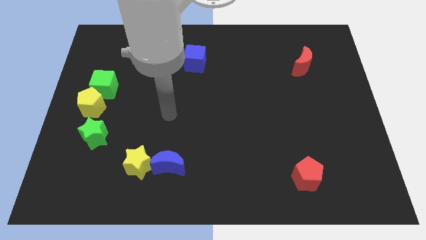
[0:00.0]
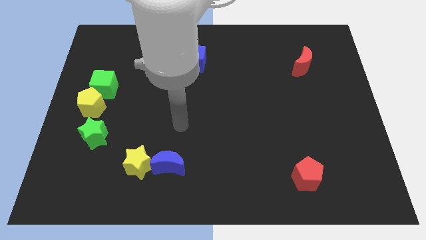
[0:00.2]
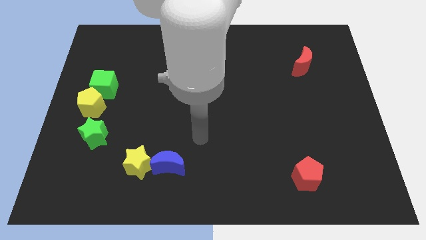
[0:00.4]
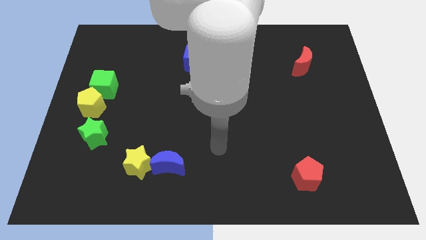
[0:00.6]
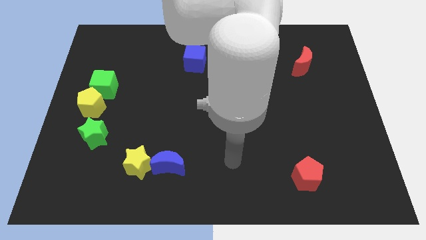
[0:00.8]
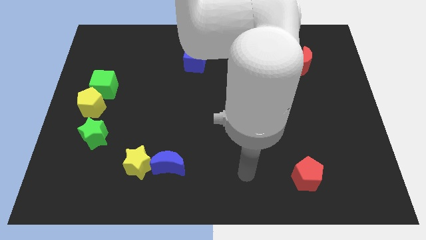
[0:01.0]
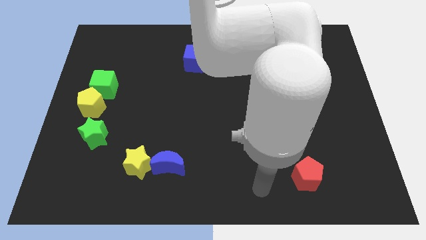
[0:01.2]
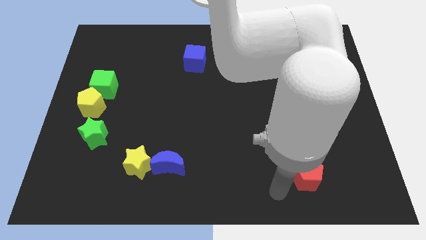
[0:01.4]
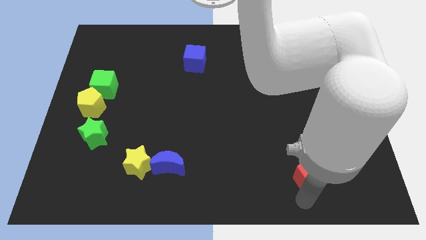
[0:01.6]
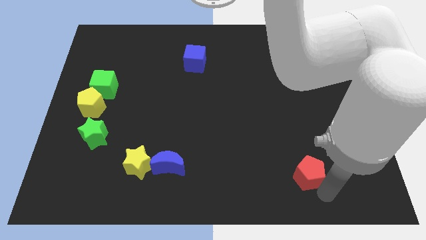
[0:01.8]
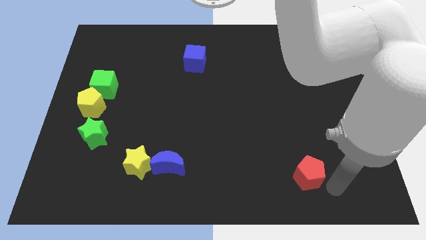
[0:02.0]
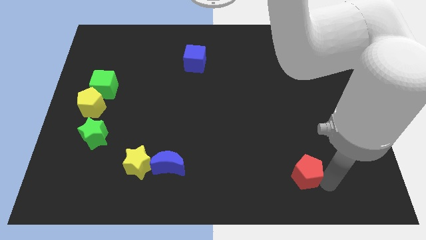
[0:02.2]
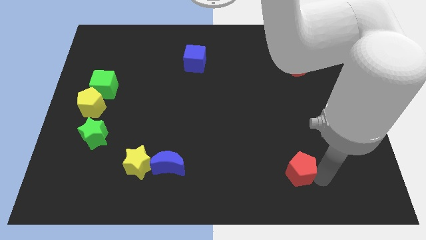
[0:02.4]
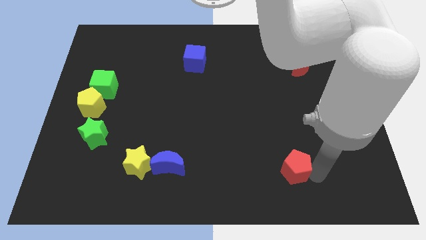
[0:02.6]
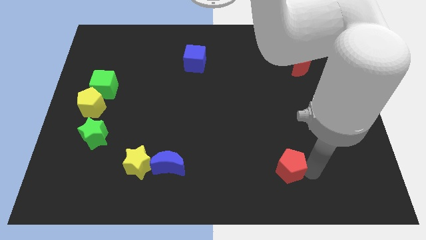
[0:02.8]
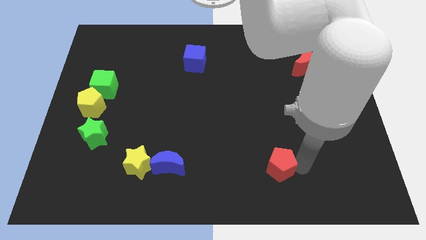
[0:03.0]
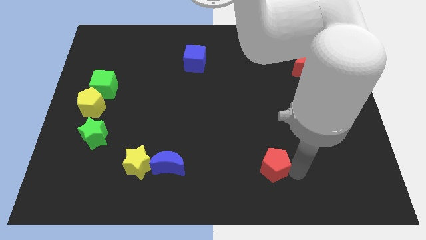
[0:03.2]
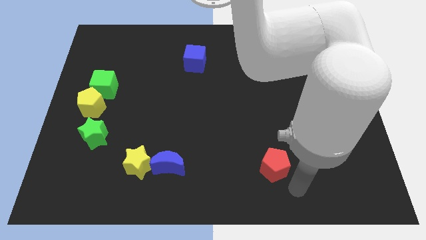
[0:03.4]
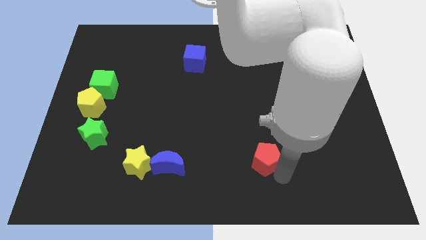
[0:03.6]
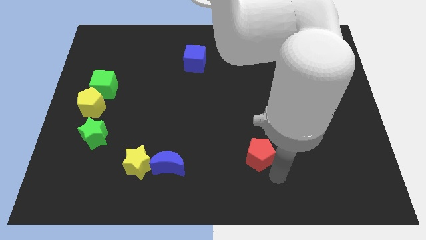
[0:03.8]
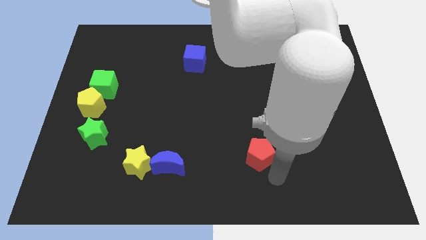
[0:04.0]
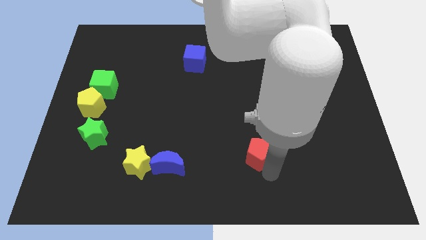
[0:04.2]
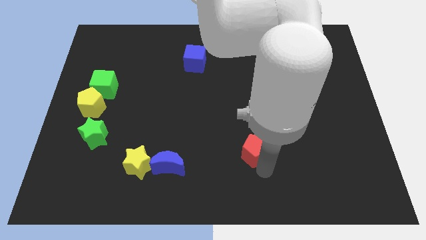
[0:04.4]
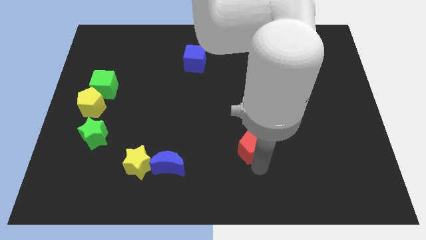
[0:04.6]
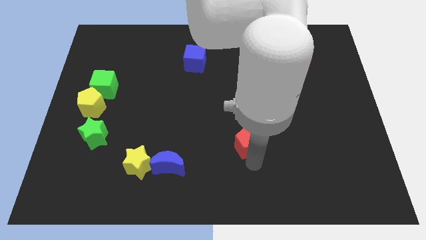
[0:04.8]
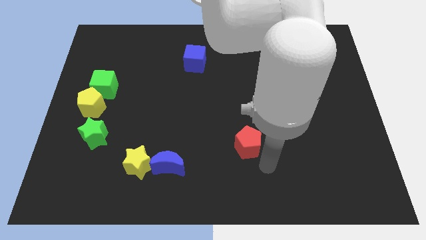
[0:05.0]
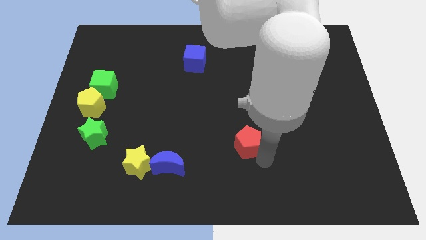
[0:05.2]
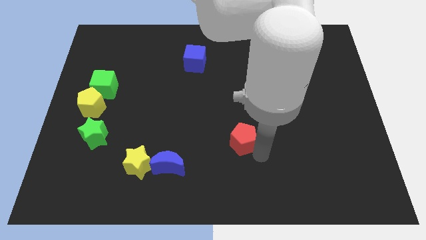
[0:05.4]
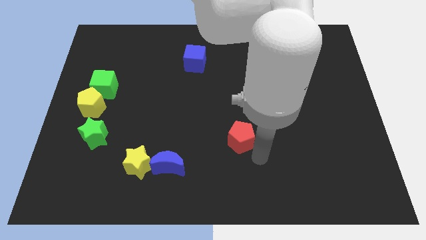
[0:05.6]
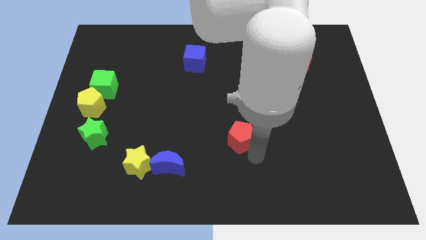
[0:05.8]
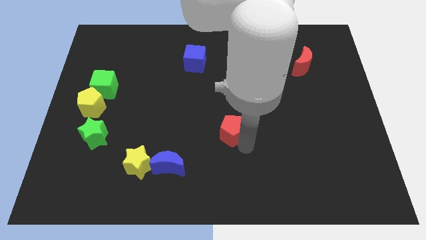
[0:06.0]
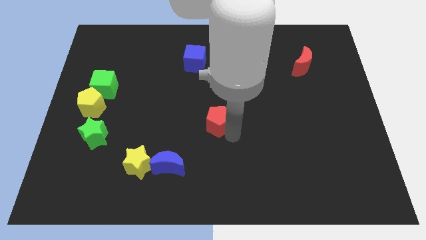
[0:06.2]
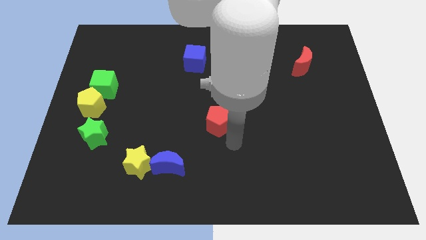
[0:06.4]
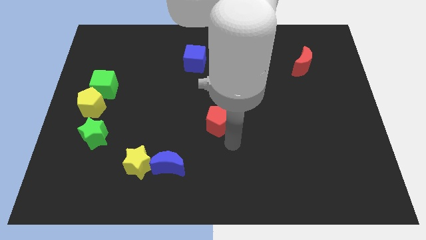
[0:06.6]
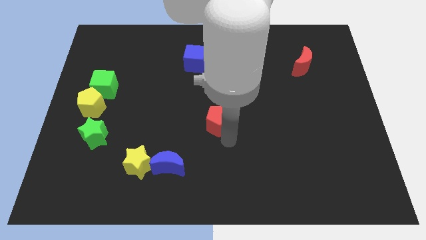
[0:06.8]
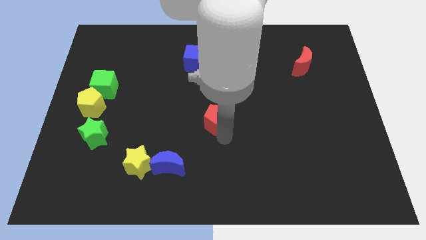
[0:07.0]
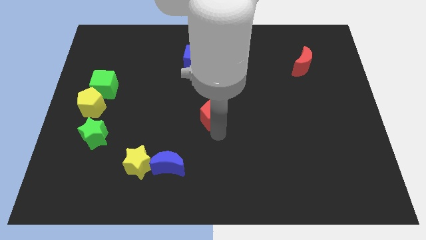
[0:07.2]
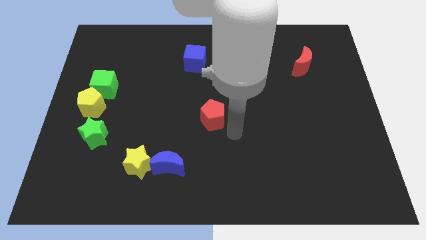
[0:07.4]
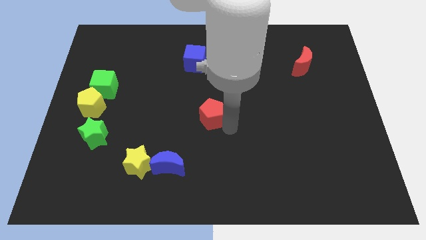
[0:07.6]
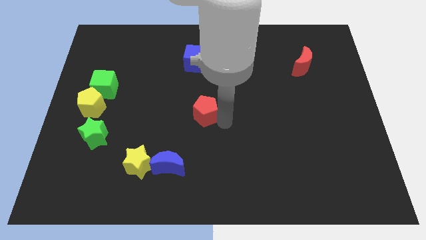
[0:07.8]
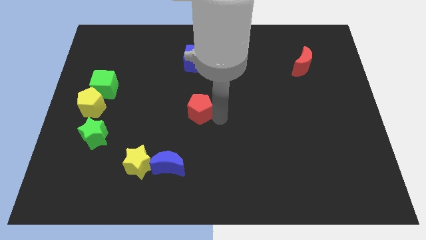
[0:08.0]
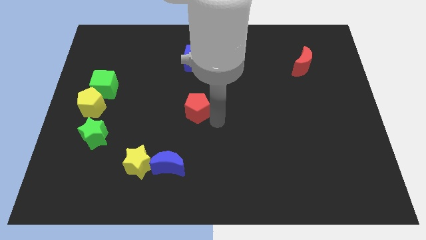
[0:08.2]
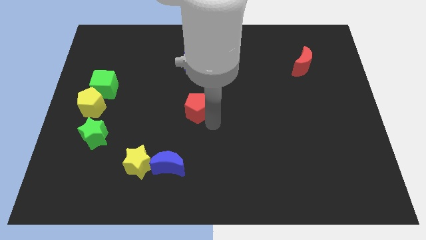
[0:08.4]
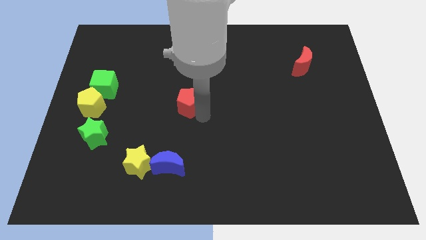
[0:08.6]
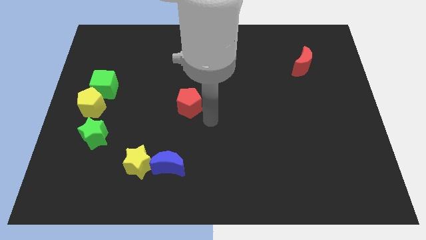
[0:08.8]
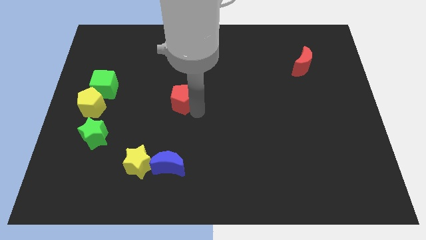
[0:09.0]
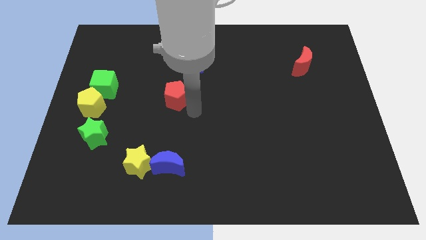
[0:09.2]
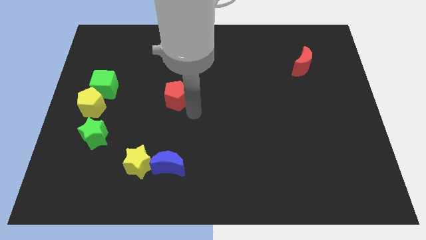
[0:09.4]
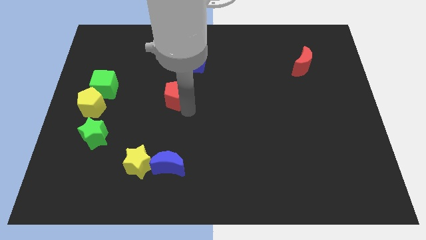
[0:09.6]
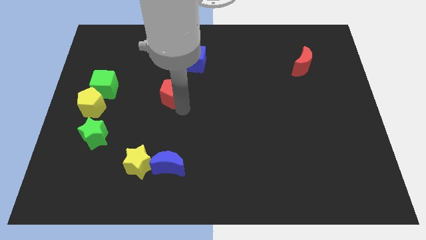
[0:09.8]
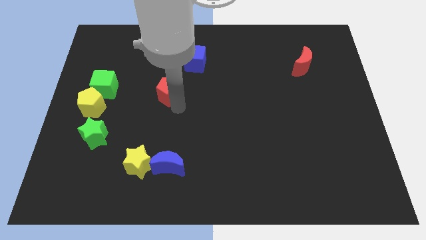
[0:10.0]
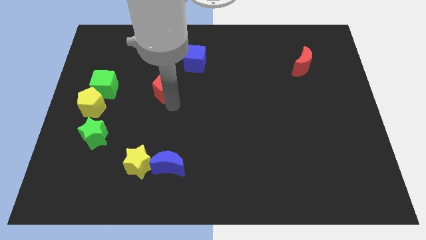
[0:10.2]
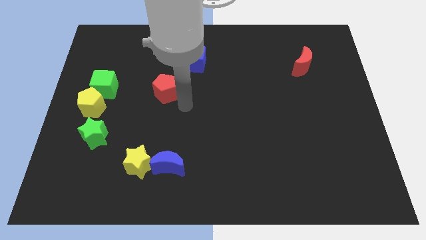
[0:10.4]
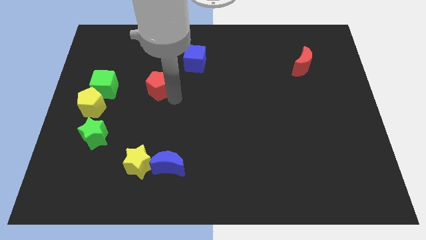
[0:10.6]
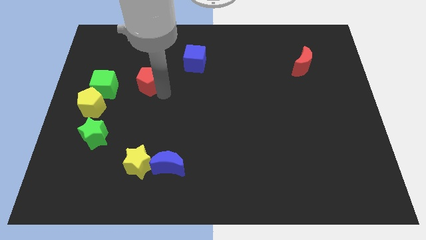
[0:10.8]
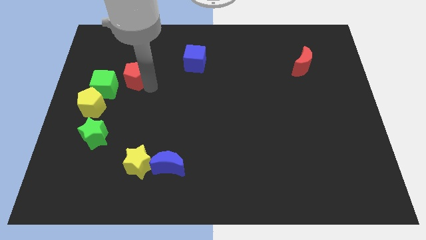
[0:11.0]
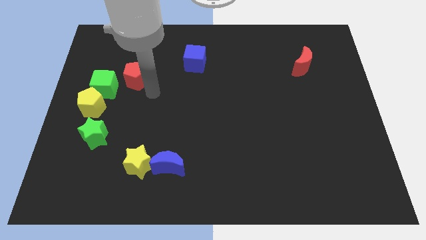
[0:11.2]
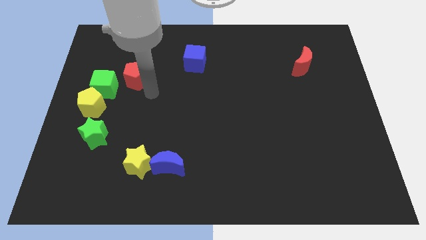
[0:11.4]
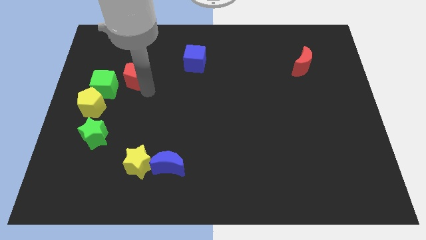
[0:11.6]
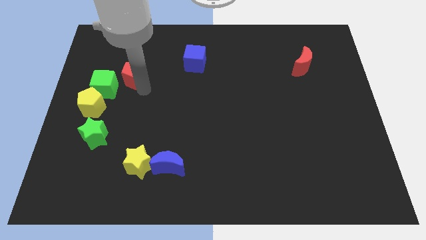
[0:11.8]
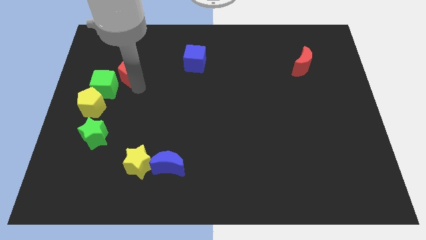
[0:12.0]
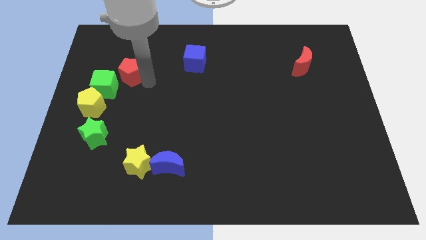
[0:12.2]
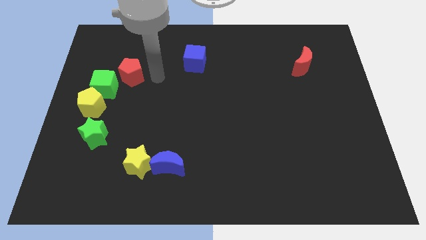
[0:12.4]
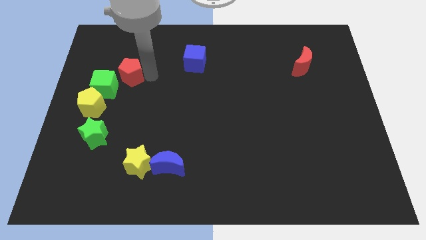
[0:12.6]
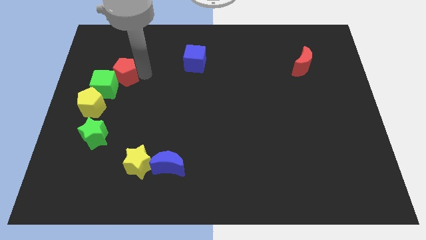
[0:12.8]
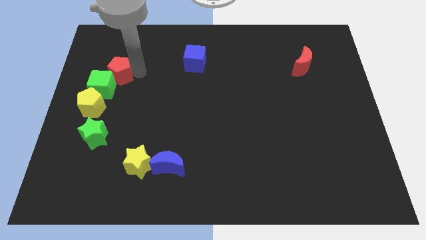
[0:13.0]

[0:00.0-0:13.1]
slide the red pentagon to the top of the yellow pentagon
